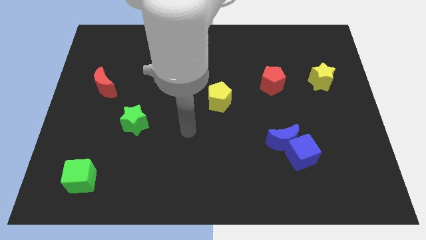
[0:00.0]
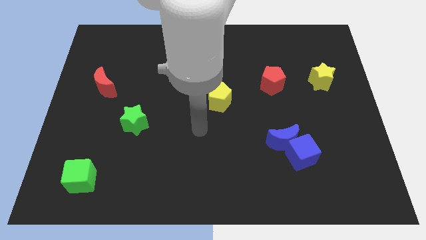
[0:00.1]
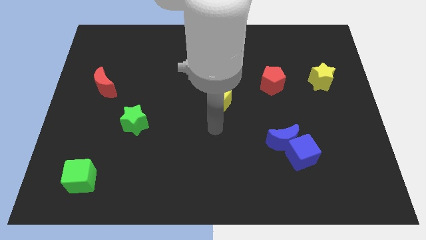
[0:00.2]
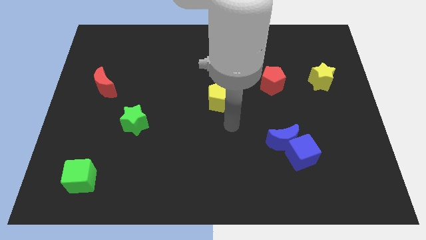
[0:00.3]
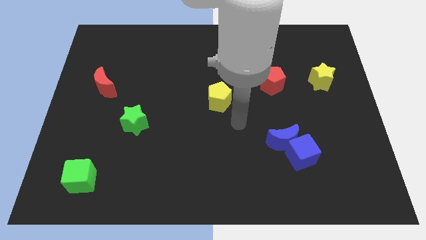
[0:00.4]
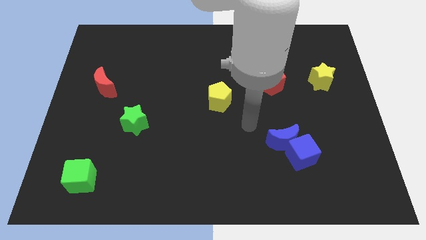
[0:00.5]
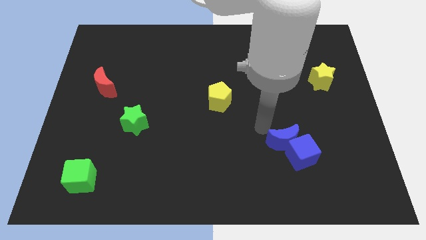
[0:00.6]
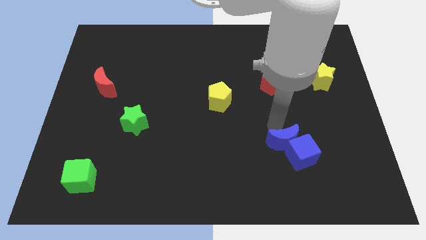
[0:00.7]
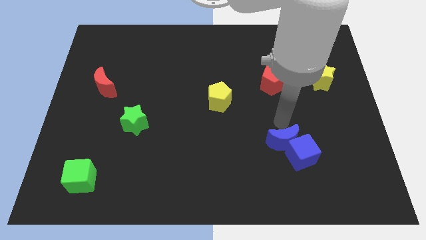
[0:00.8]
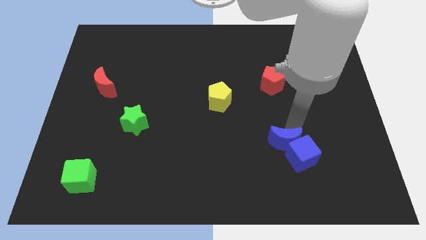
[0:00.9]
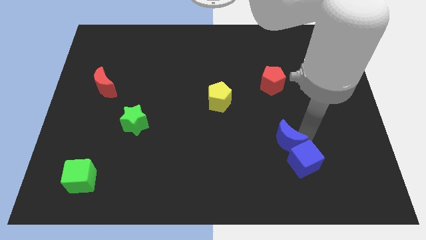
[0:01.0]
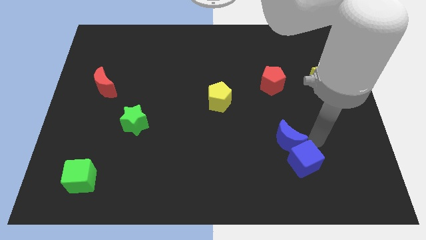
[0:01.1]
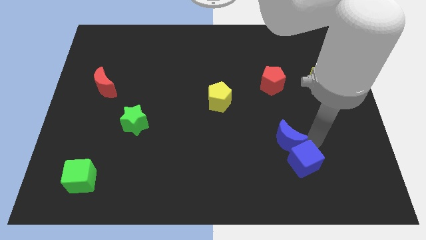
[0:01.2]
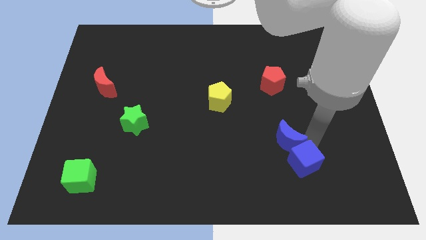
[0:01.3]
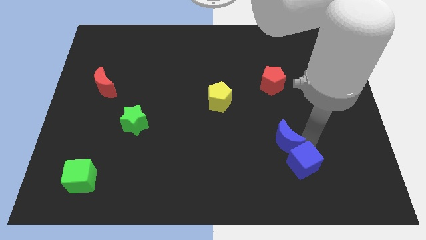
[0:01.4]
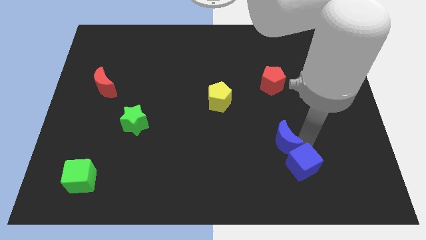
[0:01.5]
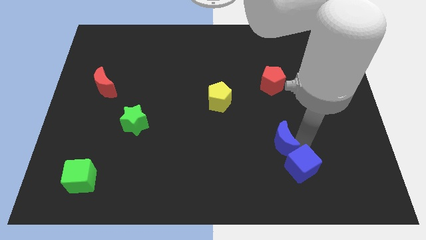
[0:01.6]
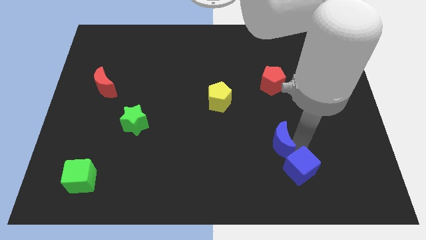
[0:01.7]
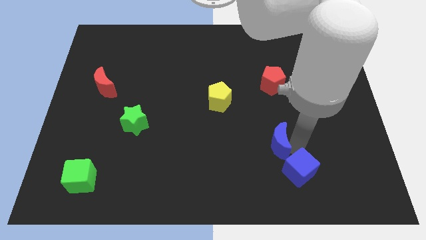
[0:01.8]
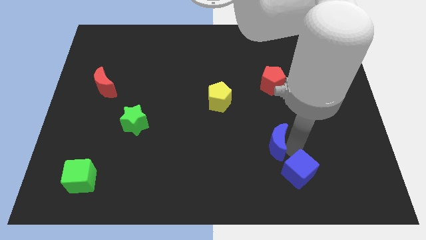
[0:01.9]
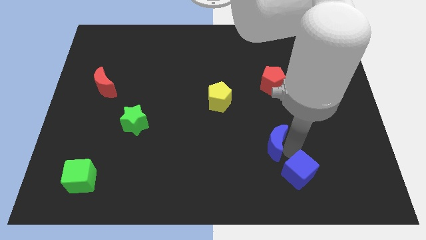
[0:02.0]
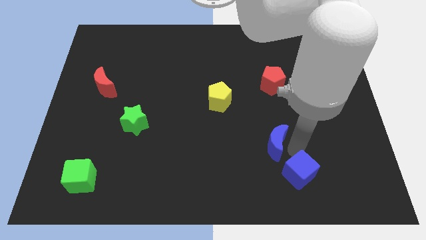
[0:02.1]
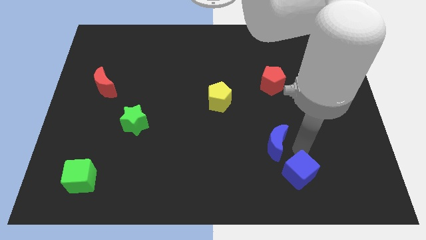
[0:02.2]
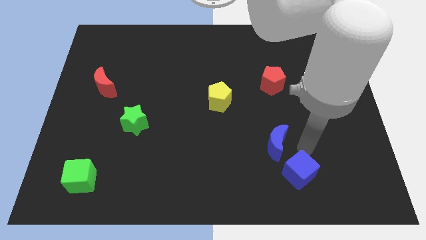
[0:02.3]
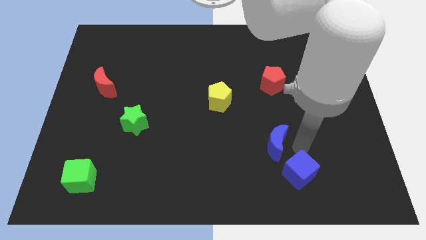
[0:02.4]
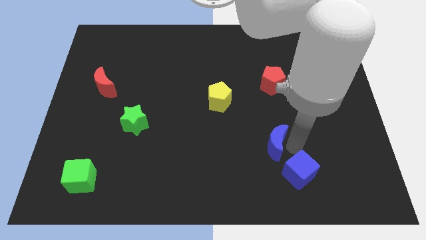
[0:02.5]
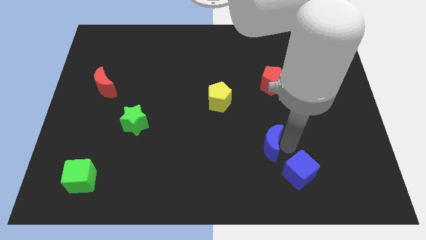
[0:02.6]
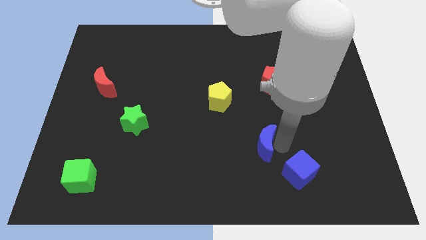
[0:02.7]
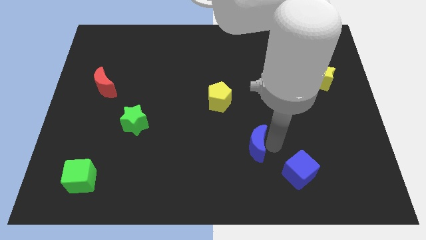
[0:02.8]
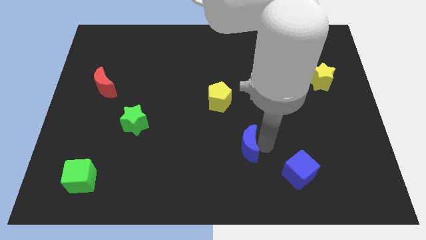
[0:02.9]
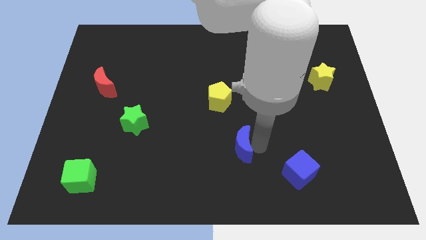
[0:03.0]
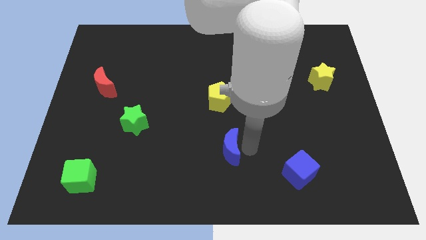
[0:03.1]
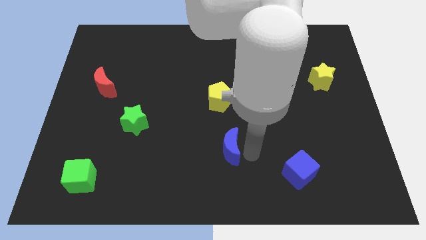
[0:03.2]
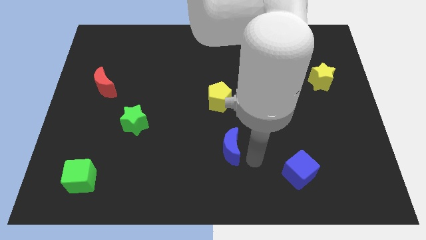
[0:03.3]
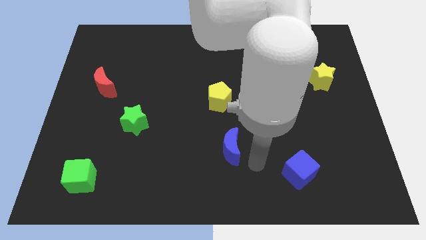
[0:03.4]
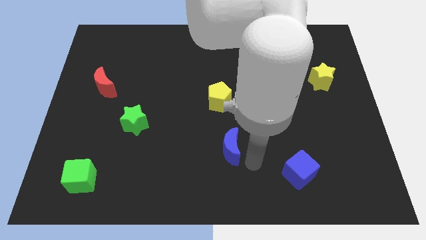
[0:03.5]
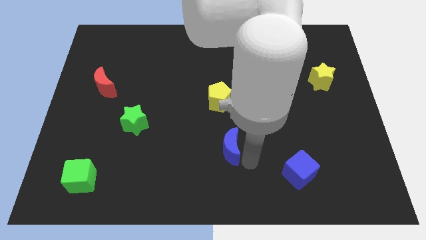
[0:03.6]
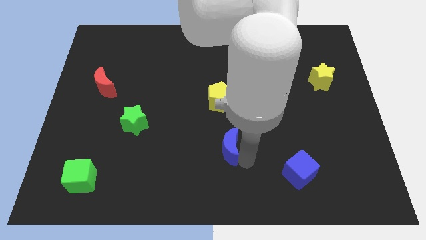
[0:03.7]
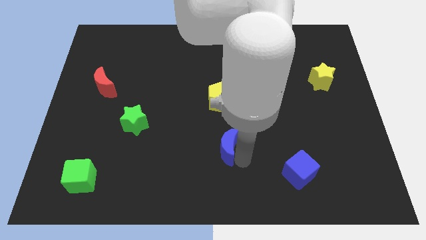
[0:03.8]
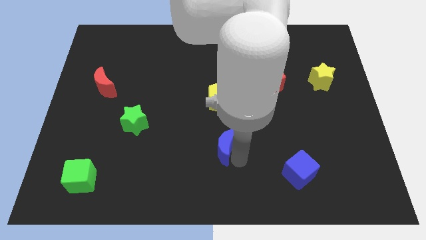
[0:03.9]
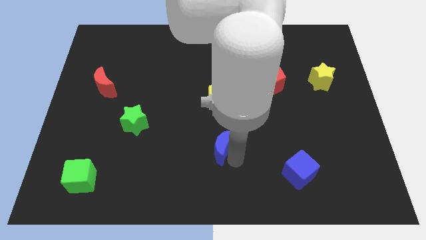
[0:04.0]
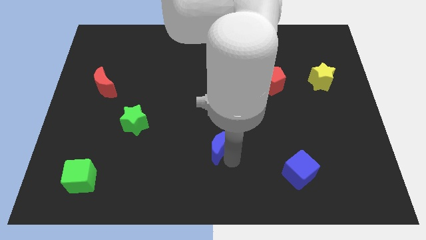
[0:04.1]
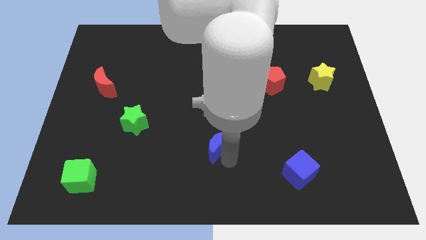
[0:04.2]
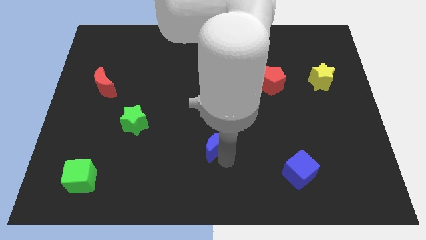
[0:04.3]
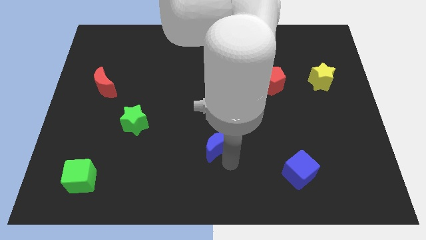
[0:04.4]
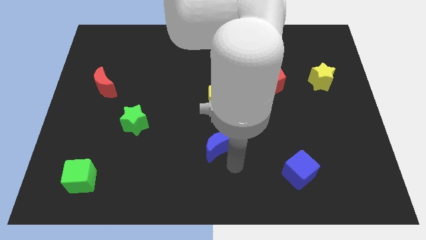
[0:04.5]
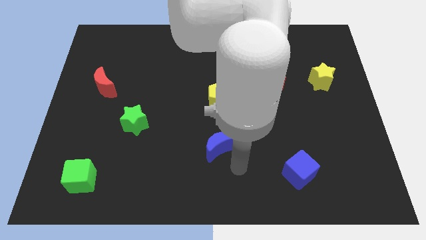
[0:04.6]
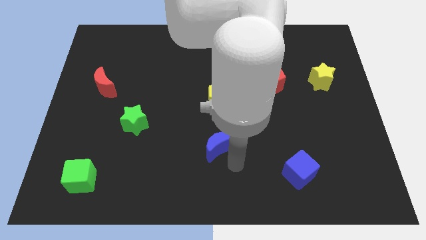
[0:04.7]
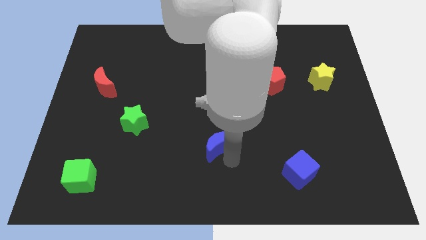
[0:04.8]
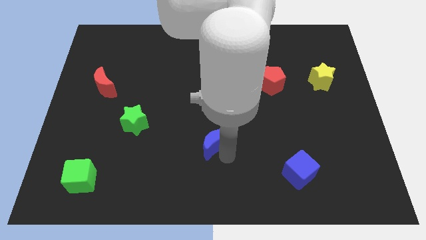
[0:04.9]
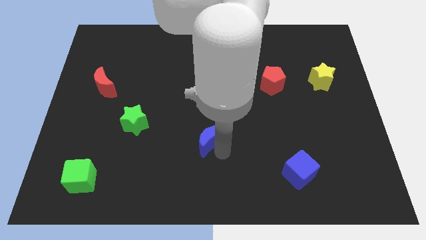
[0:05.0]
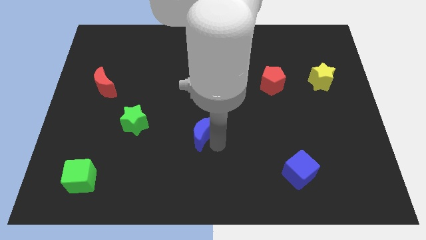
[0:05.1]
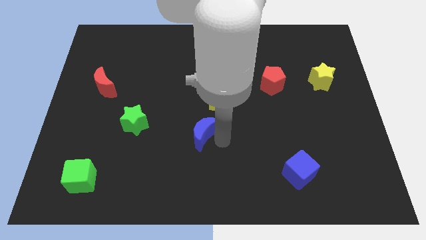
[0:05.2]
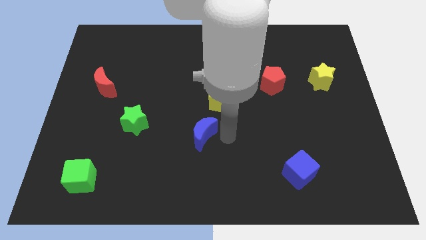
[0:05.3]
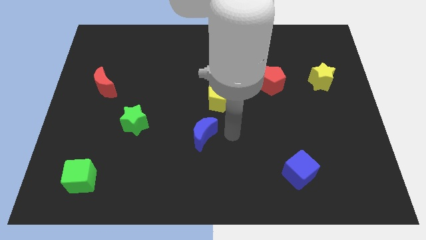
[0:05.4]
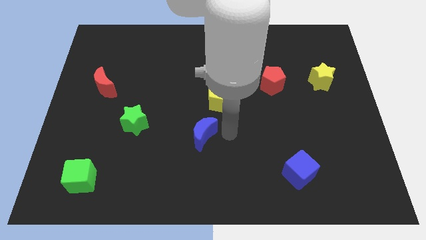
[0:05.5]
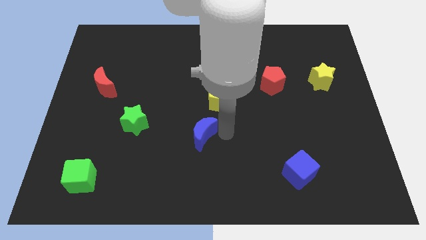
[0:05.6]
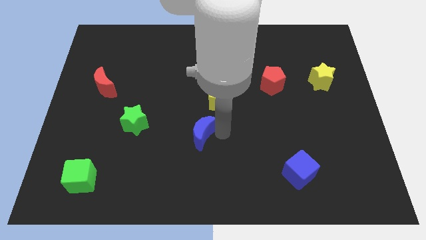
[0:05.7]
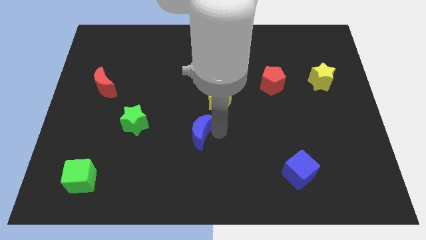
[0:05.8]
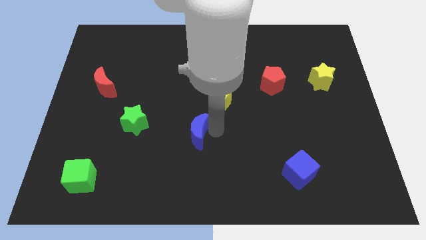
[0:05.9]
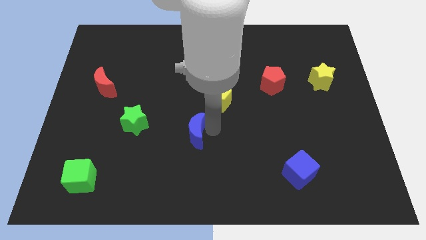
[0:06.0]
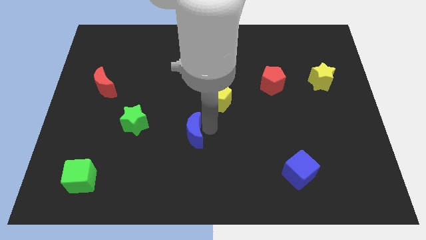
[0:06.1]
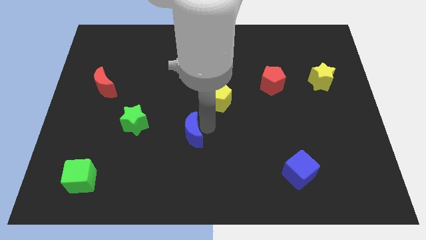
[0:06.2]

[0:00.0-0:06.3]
slide the blue moon to the left

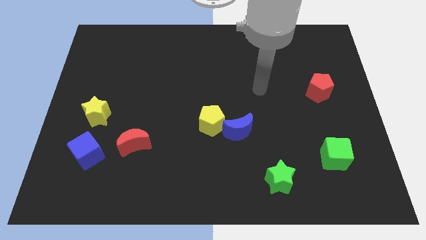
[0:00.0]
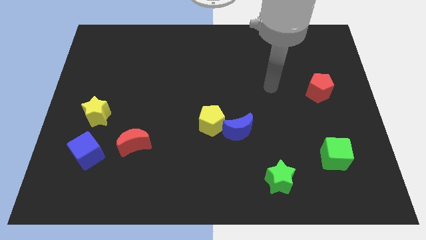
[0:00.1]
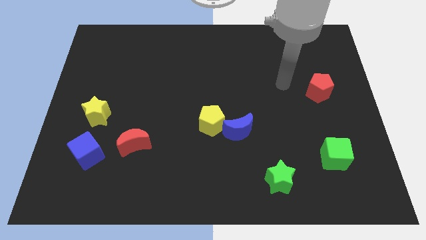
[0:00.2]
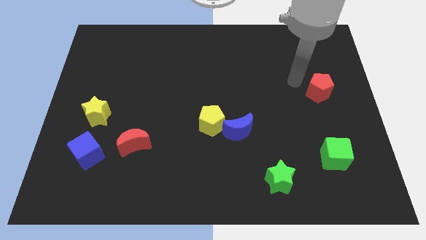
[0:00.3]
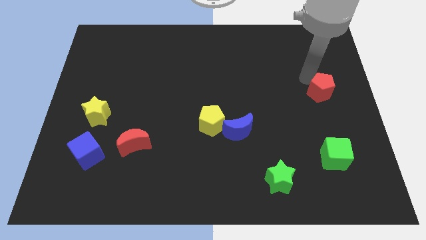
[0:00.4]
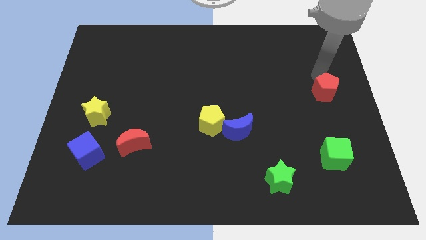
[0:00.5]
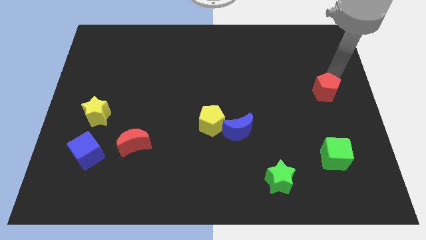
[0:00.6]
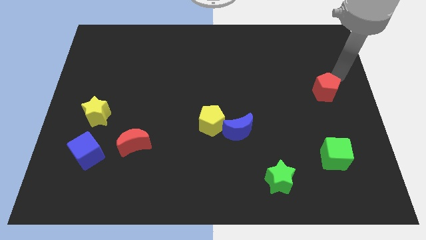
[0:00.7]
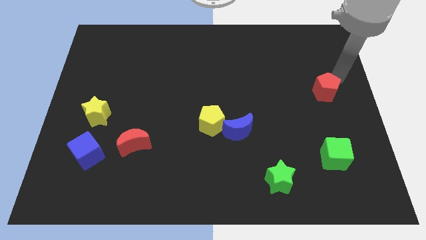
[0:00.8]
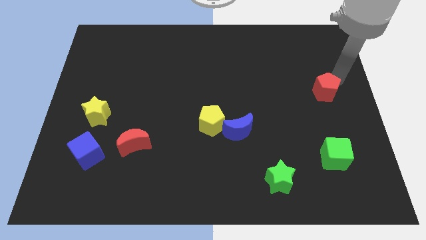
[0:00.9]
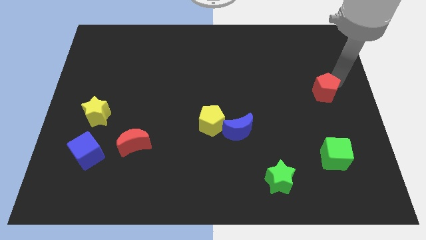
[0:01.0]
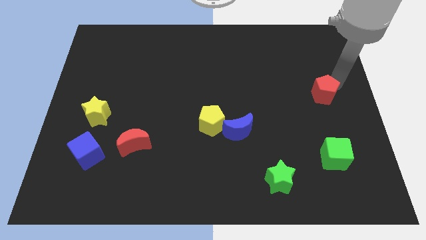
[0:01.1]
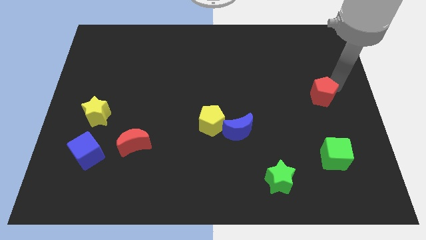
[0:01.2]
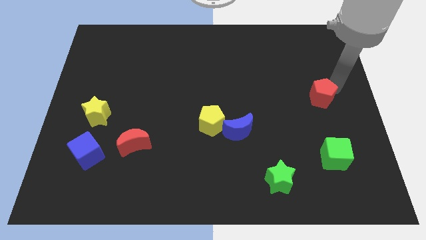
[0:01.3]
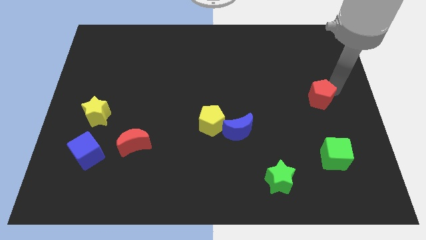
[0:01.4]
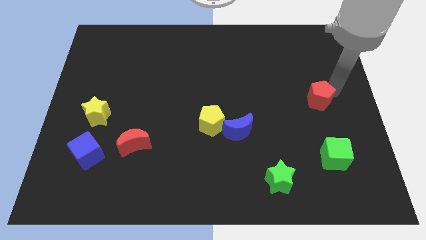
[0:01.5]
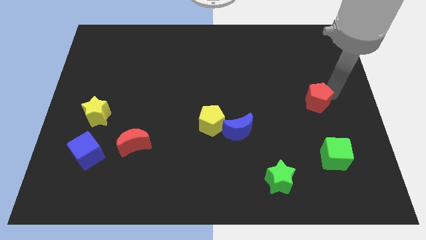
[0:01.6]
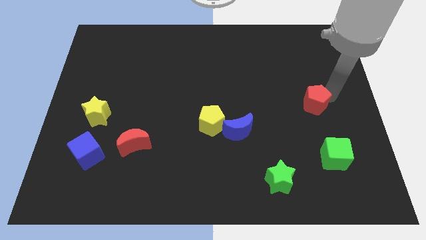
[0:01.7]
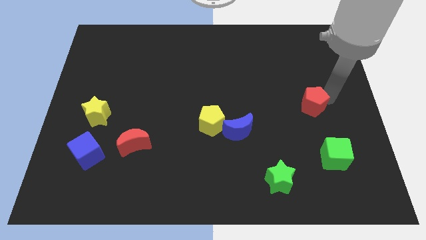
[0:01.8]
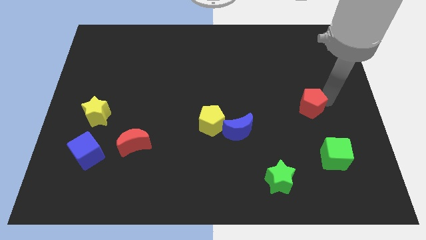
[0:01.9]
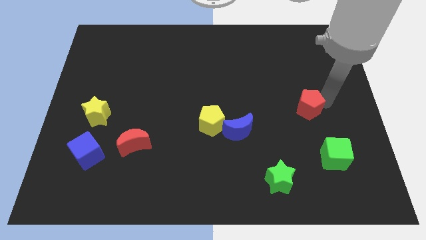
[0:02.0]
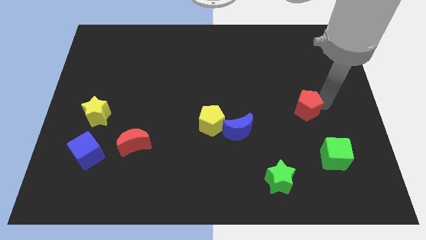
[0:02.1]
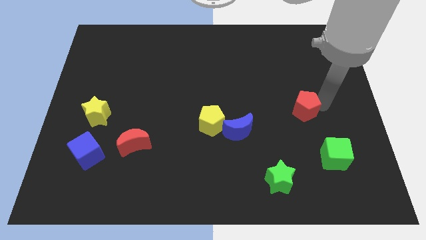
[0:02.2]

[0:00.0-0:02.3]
move the red pentagon downwards and to the left diagonally a little bit
